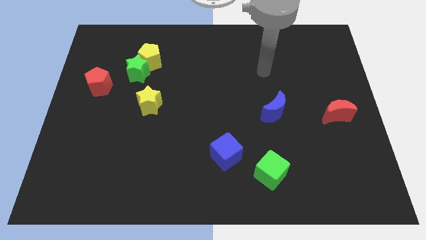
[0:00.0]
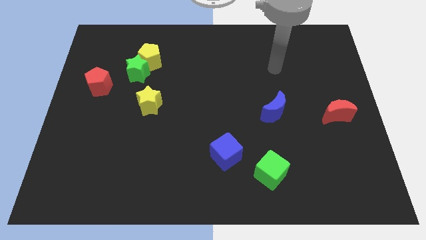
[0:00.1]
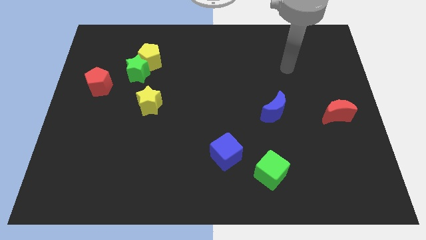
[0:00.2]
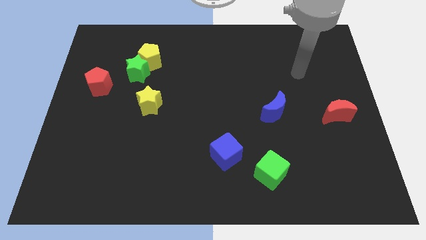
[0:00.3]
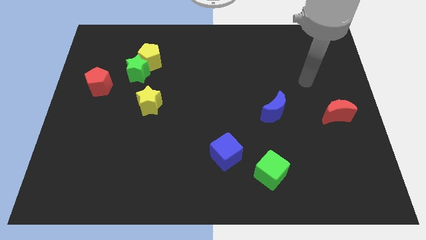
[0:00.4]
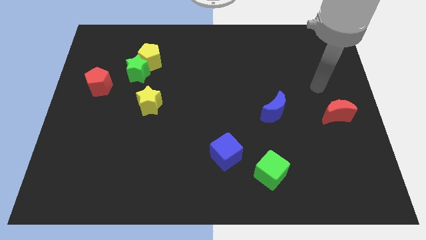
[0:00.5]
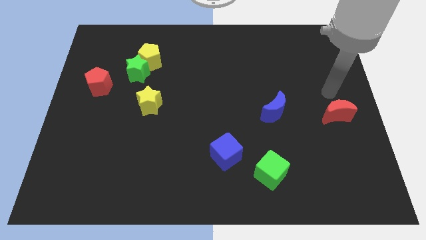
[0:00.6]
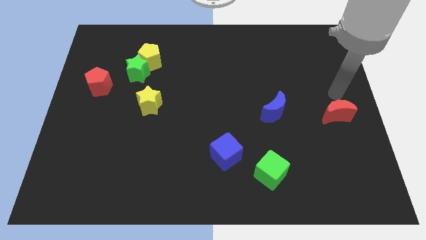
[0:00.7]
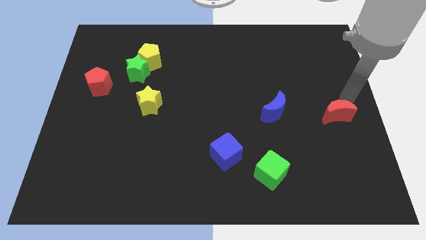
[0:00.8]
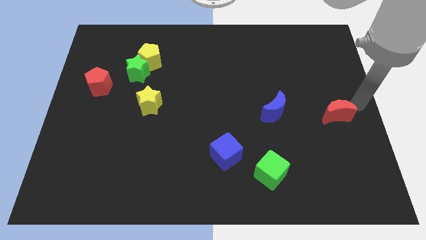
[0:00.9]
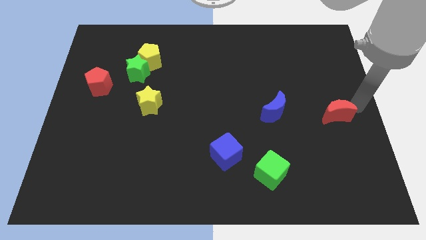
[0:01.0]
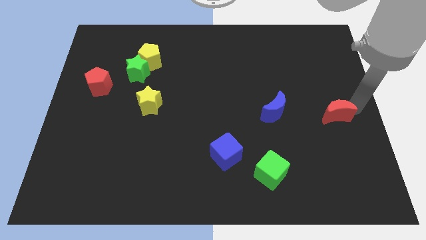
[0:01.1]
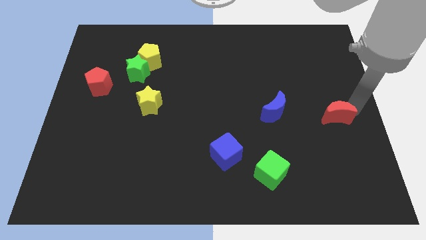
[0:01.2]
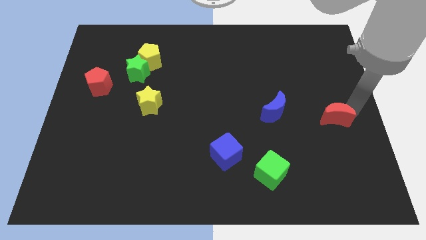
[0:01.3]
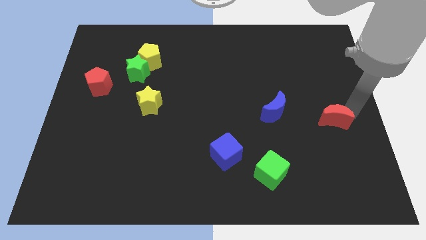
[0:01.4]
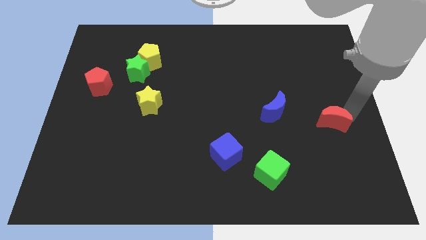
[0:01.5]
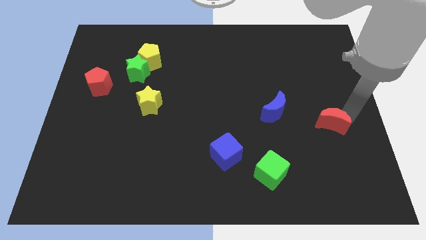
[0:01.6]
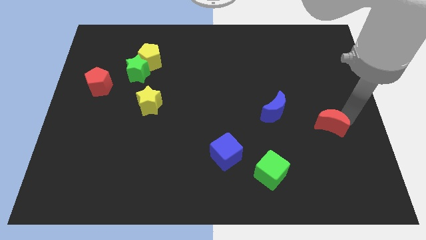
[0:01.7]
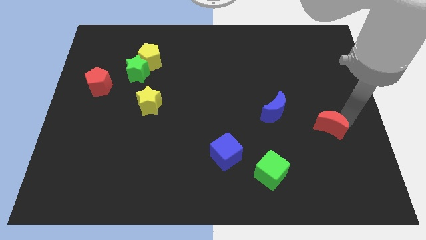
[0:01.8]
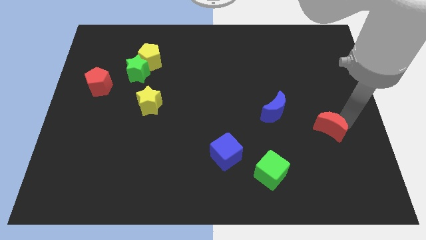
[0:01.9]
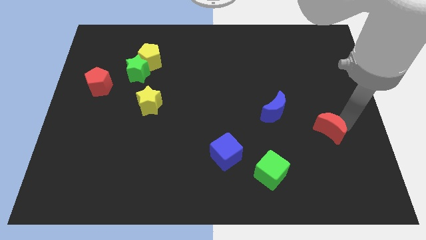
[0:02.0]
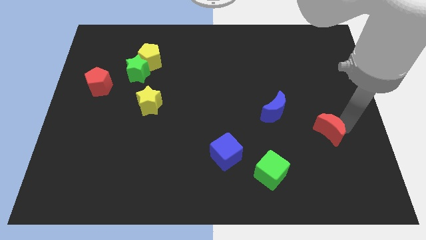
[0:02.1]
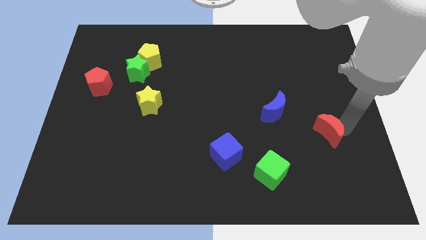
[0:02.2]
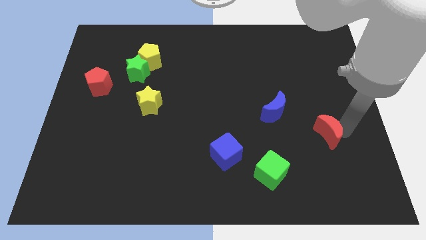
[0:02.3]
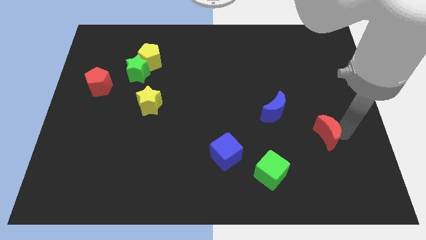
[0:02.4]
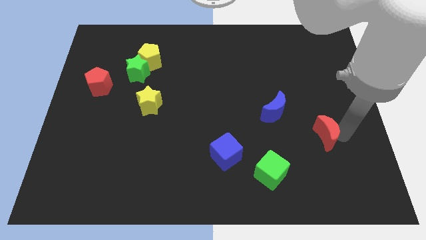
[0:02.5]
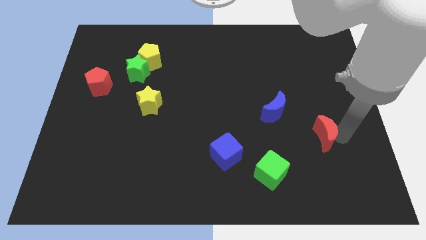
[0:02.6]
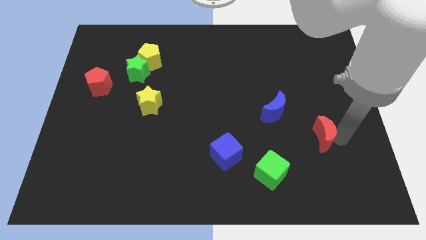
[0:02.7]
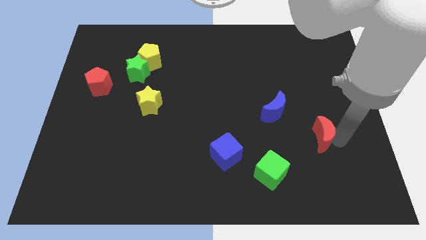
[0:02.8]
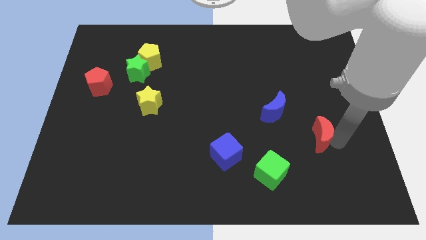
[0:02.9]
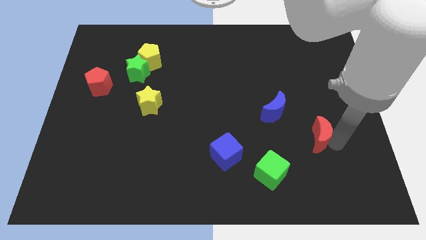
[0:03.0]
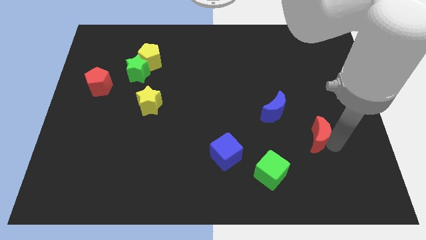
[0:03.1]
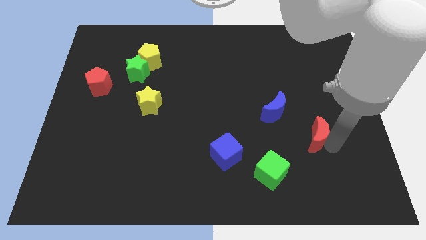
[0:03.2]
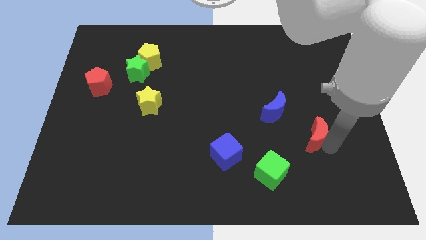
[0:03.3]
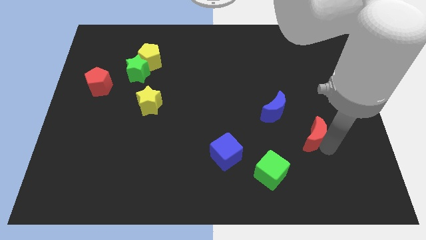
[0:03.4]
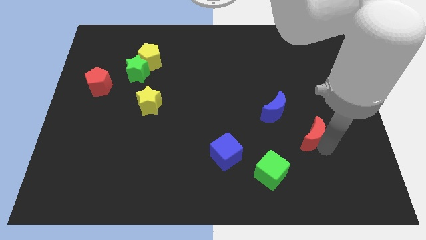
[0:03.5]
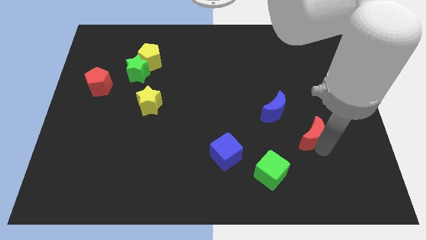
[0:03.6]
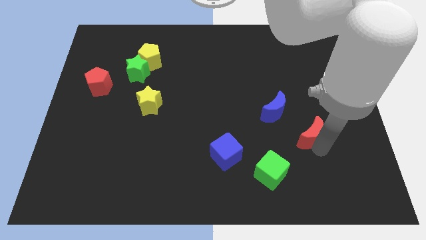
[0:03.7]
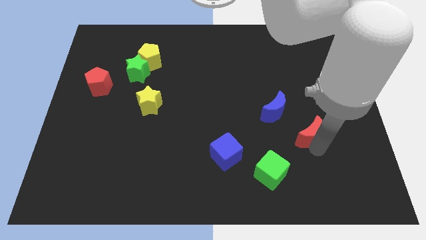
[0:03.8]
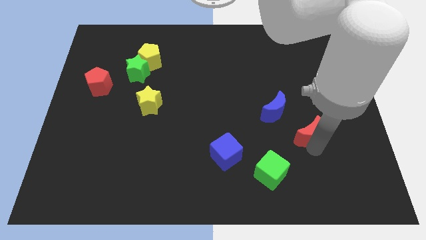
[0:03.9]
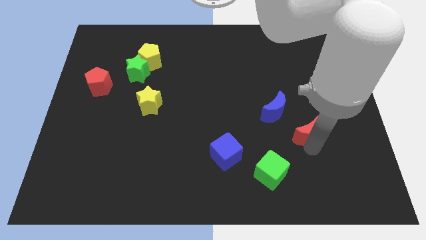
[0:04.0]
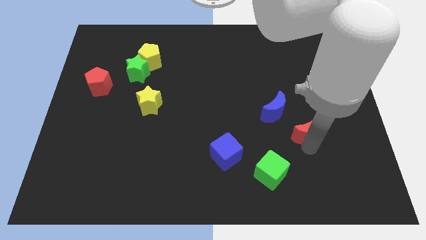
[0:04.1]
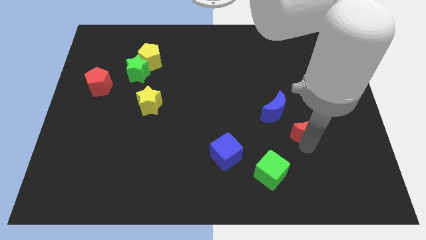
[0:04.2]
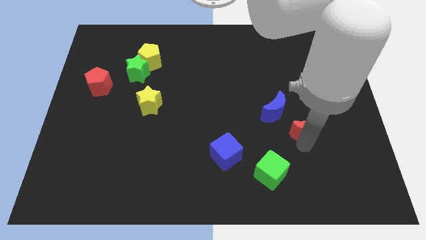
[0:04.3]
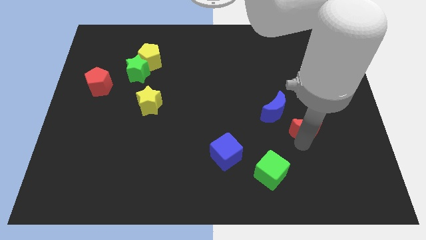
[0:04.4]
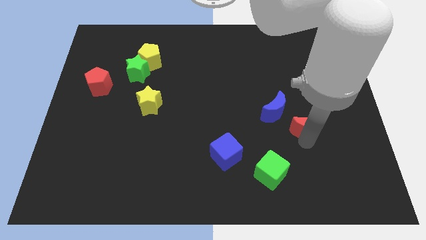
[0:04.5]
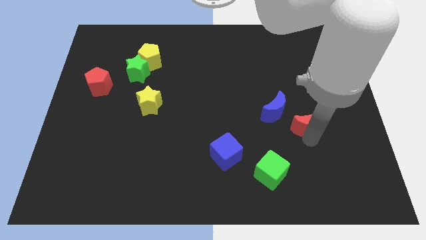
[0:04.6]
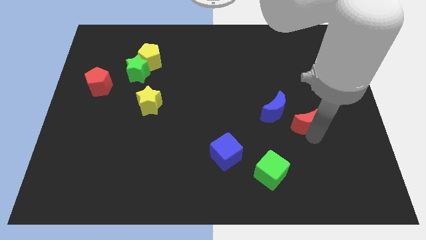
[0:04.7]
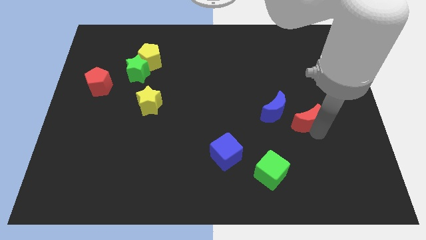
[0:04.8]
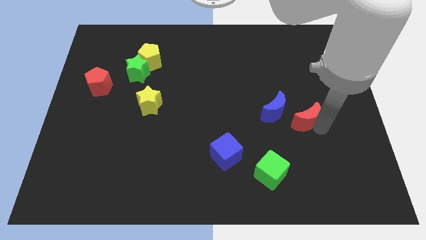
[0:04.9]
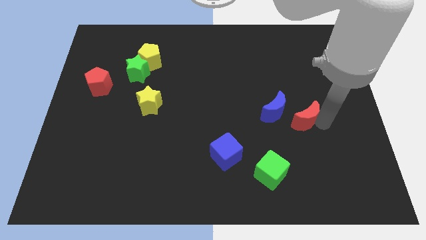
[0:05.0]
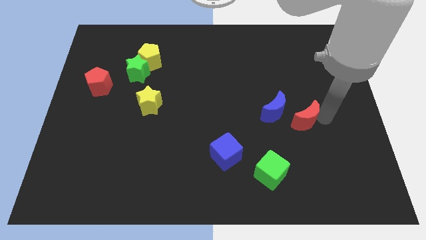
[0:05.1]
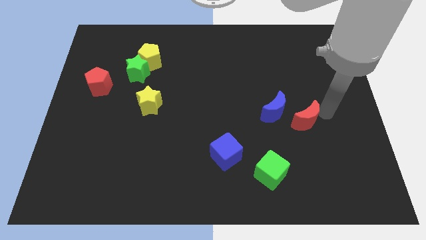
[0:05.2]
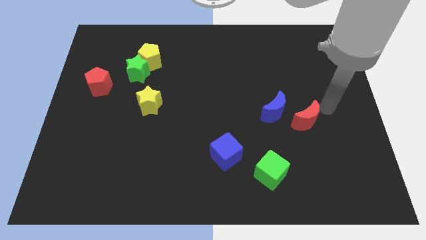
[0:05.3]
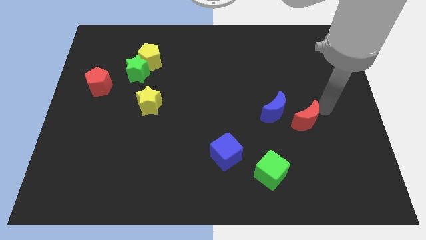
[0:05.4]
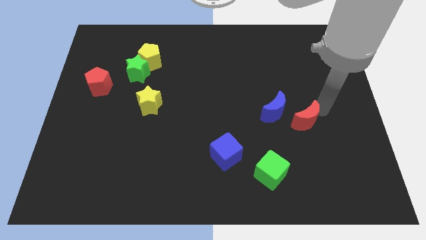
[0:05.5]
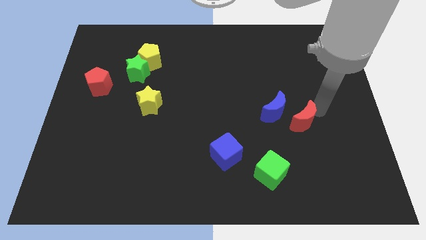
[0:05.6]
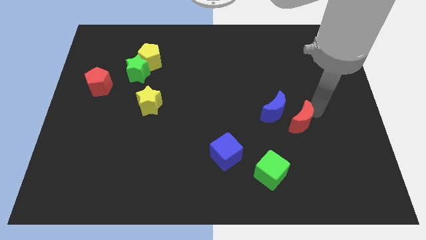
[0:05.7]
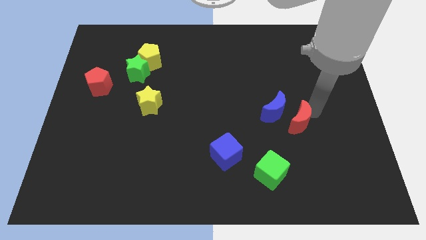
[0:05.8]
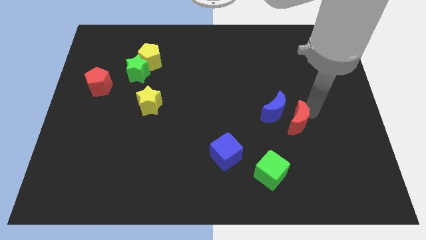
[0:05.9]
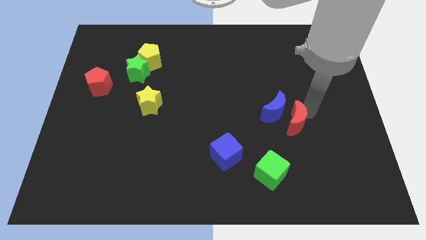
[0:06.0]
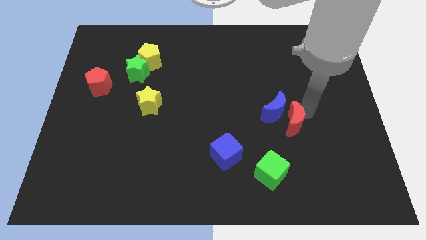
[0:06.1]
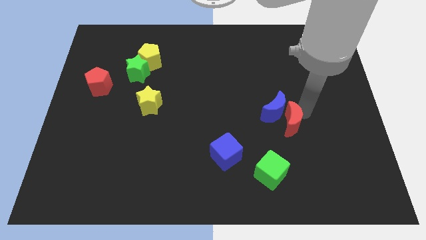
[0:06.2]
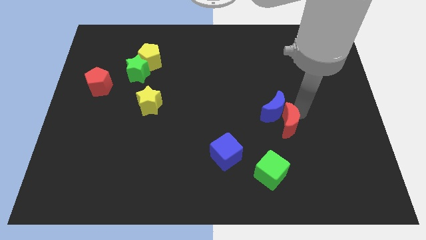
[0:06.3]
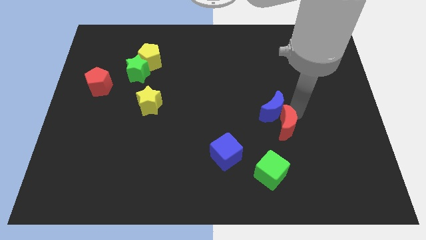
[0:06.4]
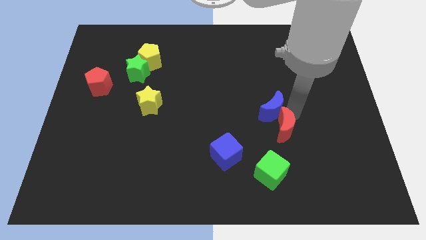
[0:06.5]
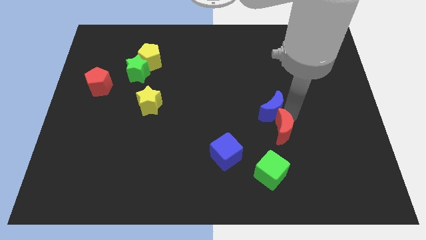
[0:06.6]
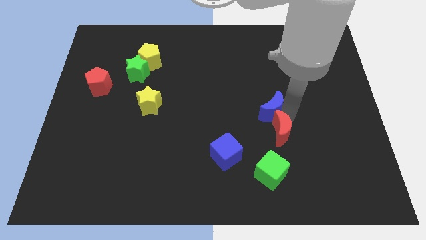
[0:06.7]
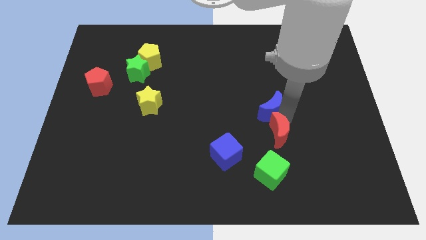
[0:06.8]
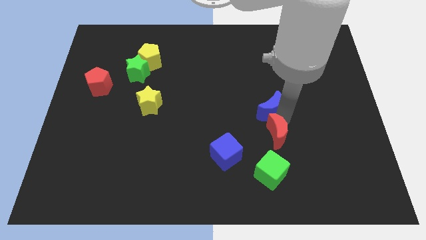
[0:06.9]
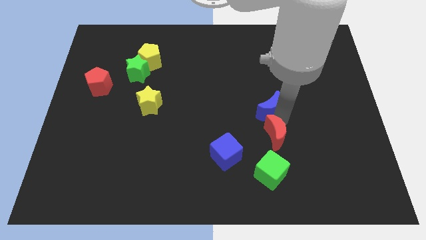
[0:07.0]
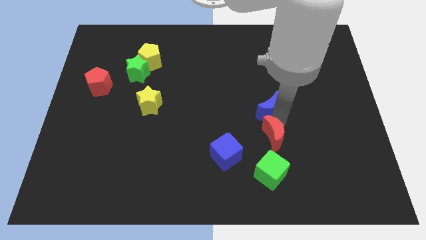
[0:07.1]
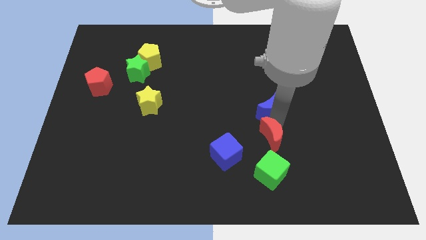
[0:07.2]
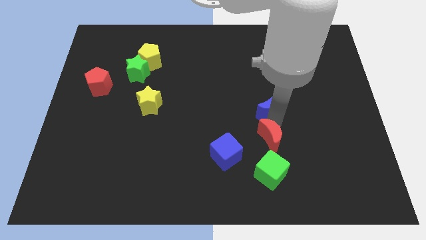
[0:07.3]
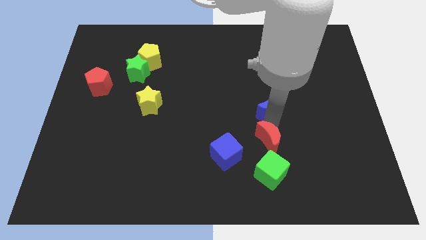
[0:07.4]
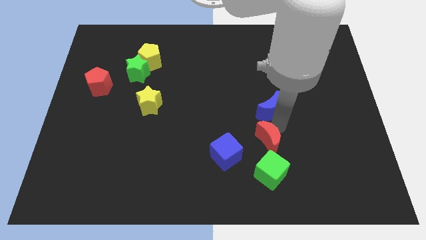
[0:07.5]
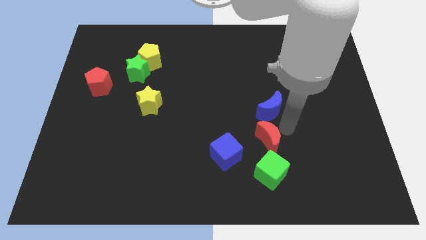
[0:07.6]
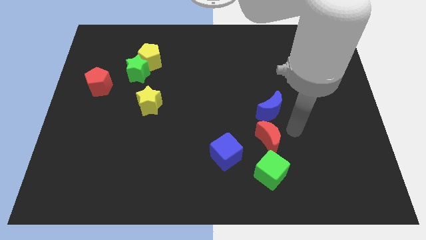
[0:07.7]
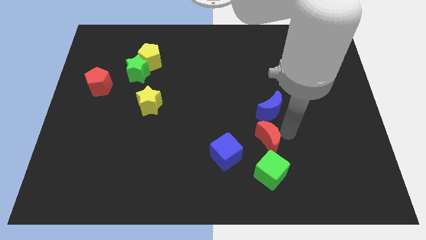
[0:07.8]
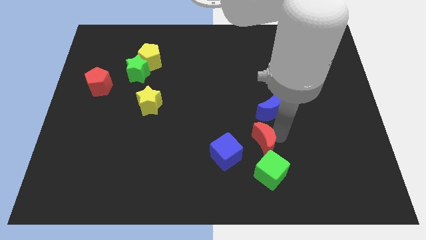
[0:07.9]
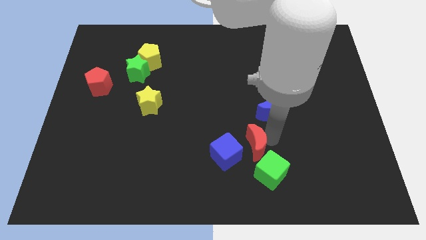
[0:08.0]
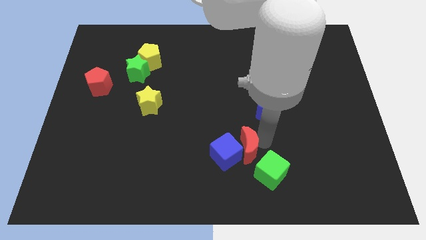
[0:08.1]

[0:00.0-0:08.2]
put the red moon next to the blue cube
